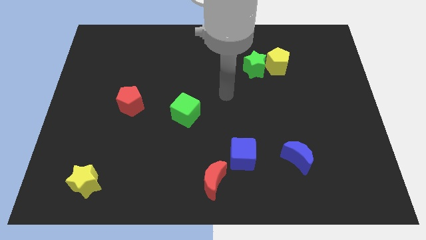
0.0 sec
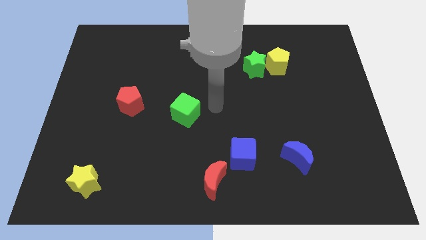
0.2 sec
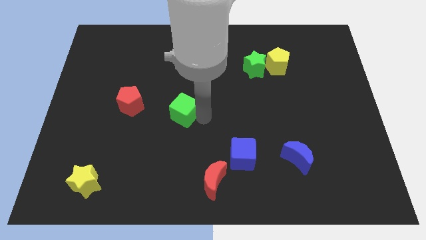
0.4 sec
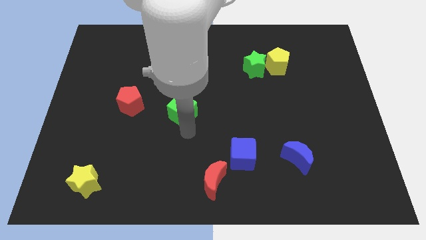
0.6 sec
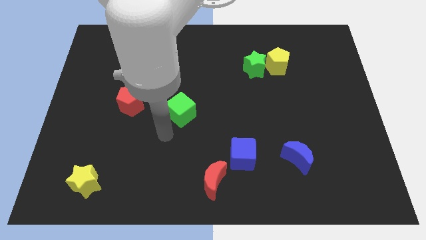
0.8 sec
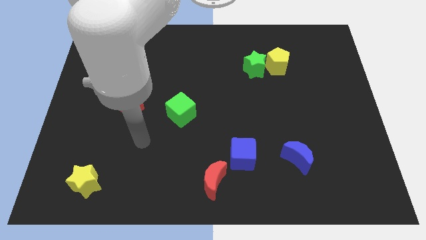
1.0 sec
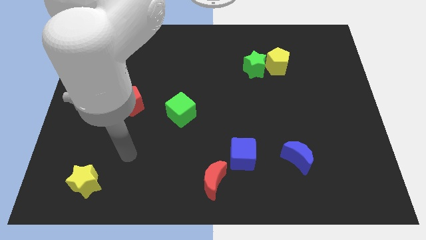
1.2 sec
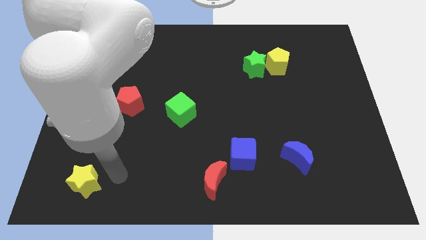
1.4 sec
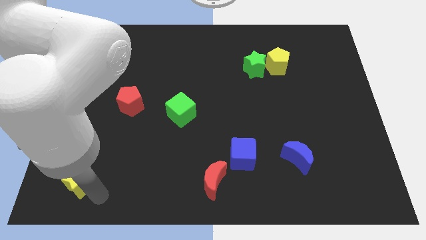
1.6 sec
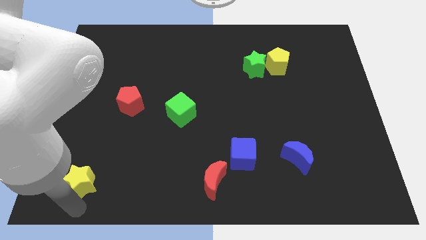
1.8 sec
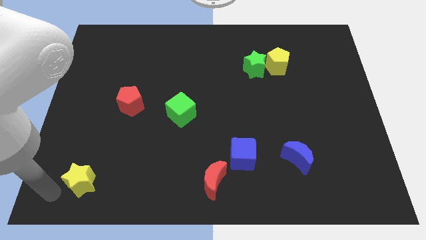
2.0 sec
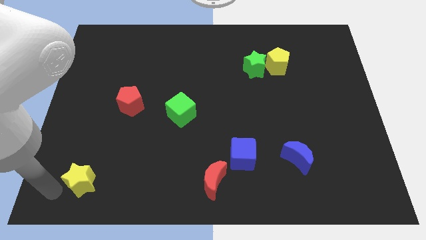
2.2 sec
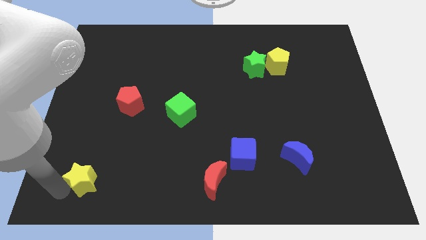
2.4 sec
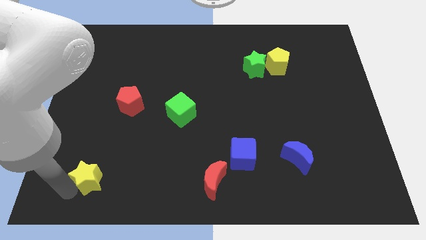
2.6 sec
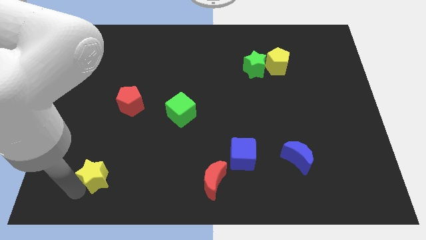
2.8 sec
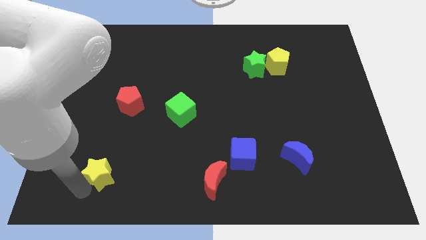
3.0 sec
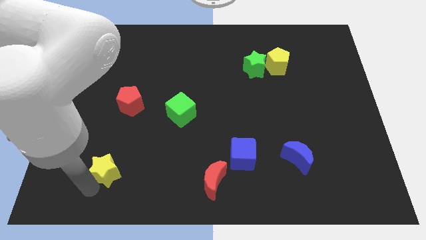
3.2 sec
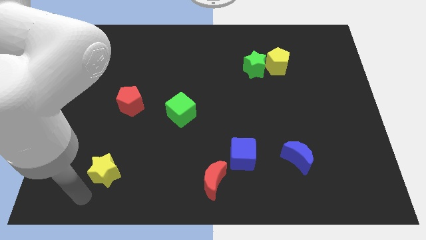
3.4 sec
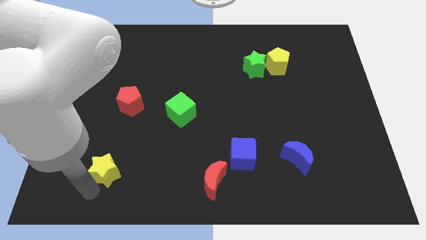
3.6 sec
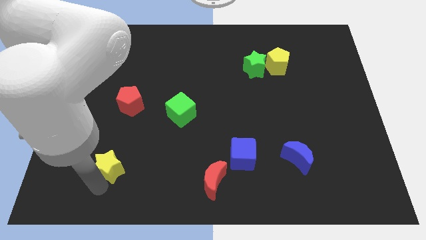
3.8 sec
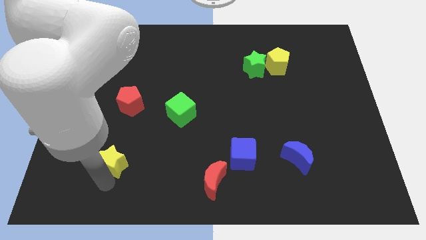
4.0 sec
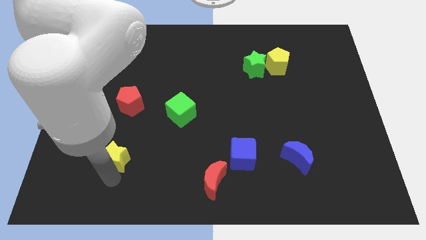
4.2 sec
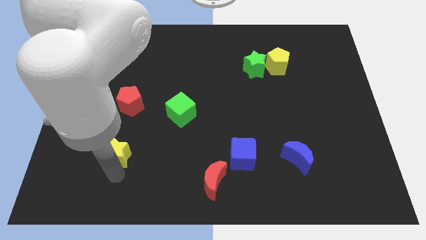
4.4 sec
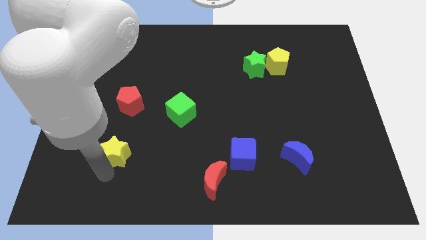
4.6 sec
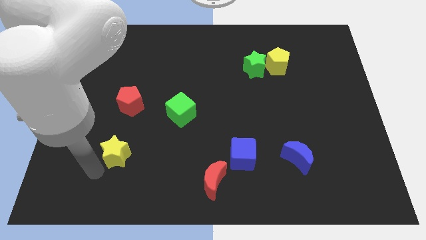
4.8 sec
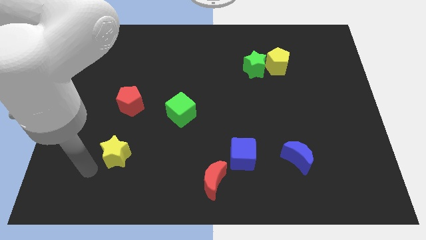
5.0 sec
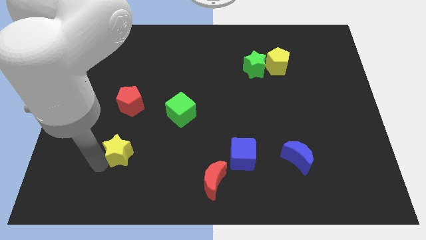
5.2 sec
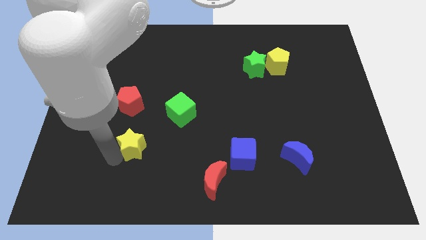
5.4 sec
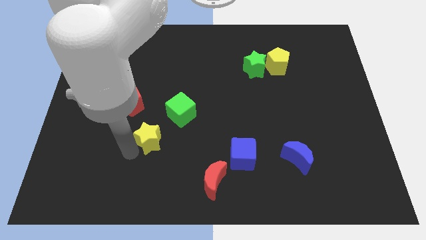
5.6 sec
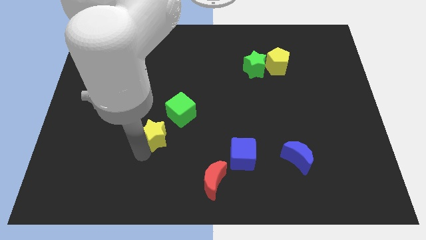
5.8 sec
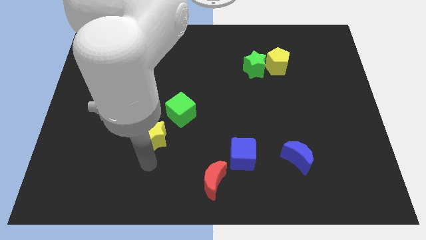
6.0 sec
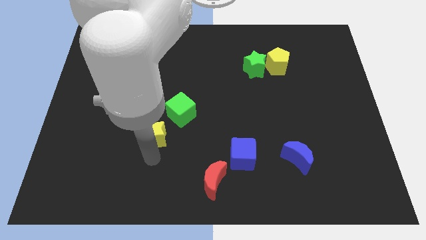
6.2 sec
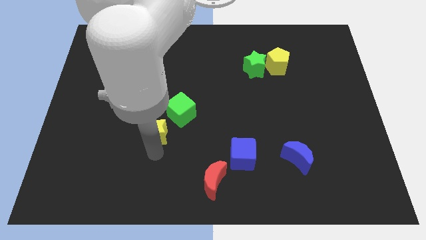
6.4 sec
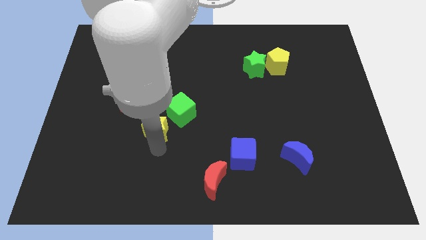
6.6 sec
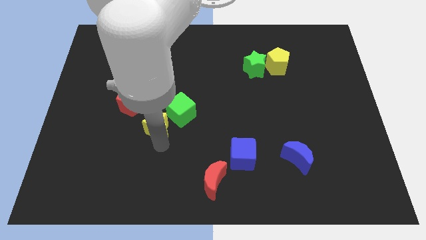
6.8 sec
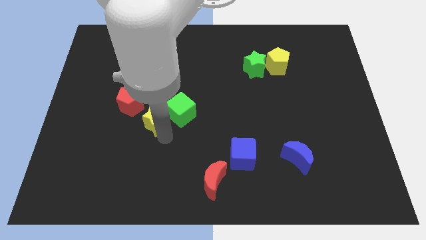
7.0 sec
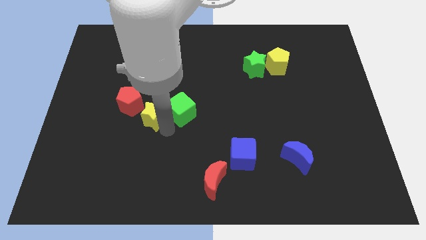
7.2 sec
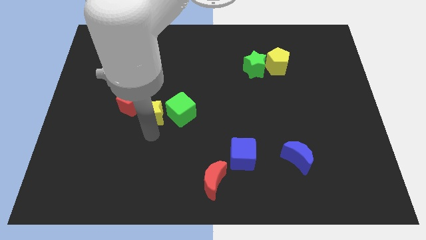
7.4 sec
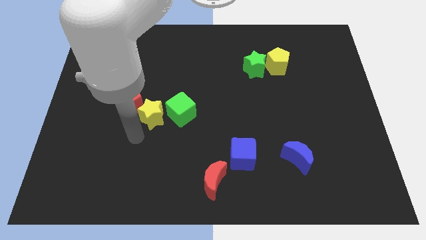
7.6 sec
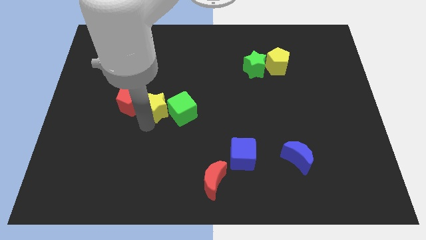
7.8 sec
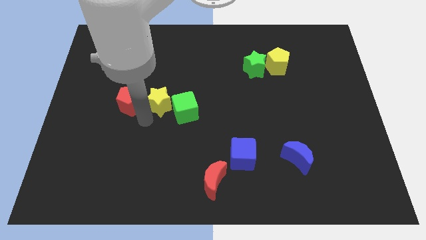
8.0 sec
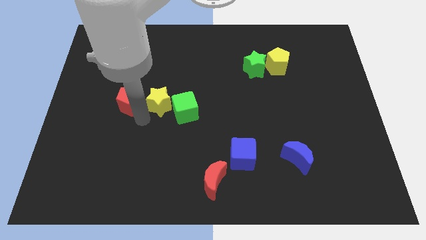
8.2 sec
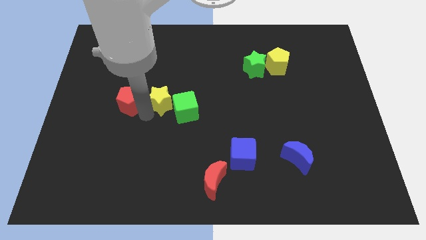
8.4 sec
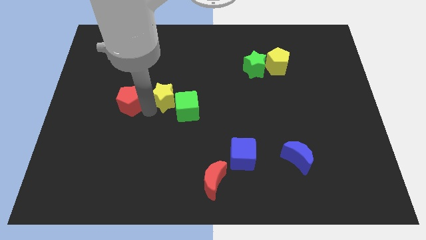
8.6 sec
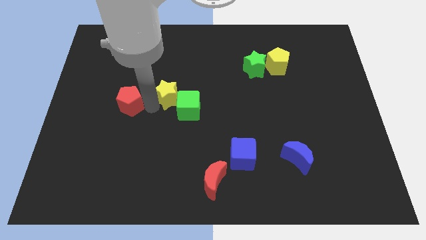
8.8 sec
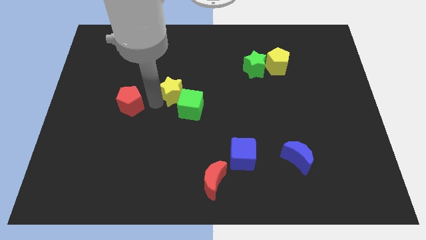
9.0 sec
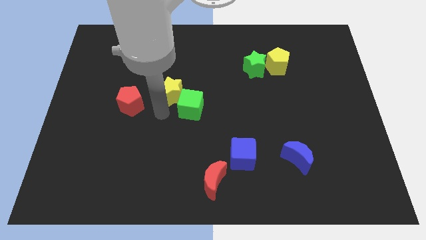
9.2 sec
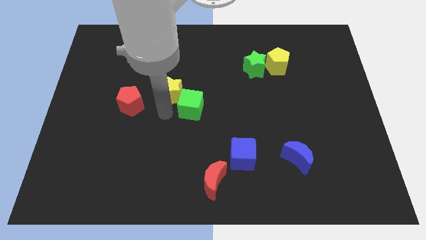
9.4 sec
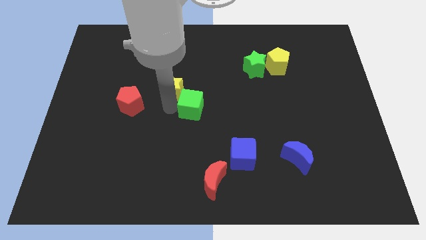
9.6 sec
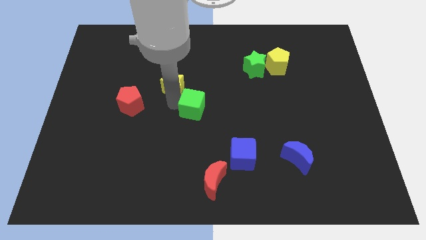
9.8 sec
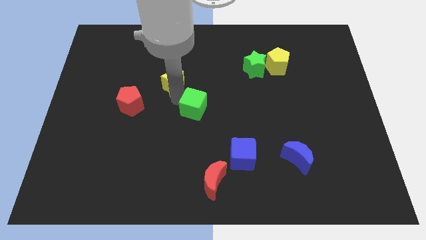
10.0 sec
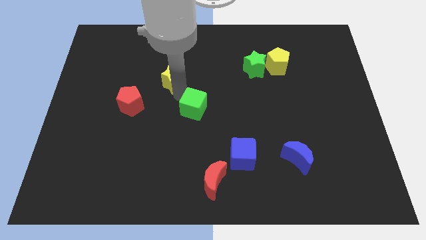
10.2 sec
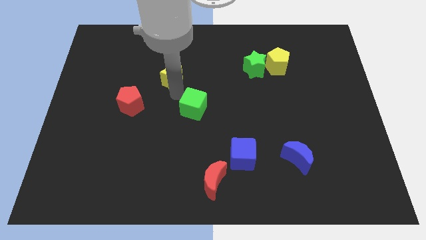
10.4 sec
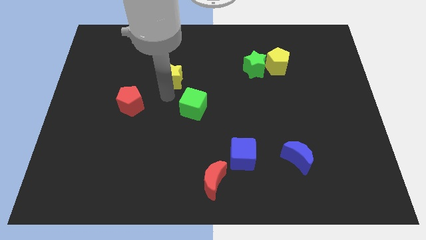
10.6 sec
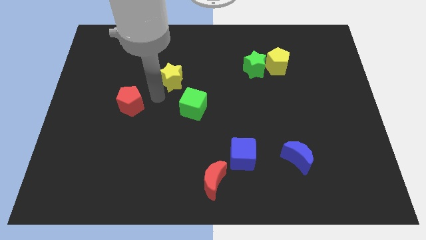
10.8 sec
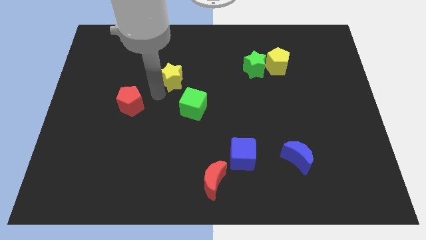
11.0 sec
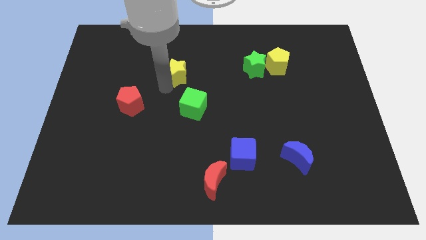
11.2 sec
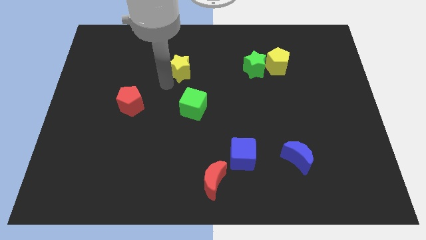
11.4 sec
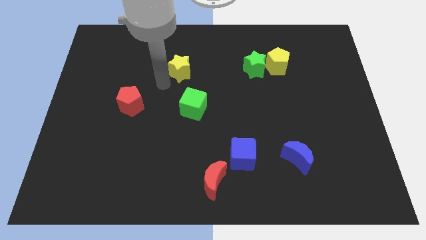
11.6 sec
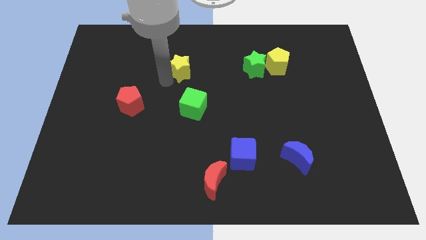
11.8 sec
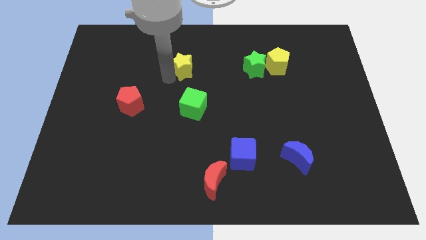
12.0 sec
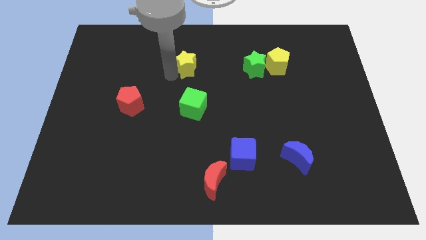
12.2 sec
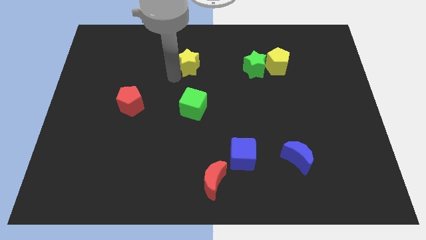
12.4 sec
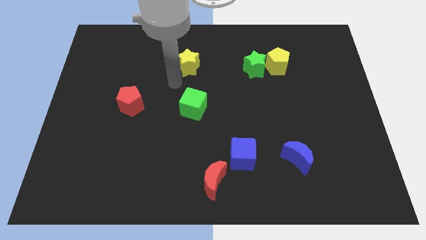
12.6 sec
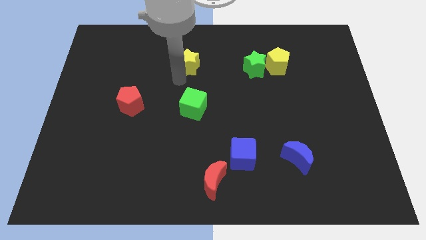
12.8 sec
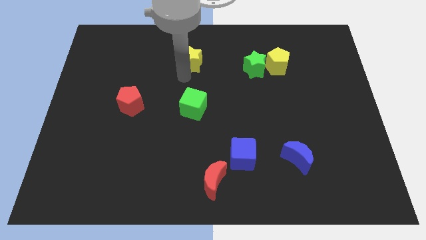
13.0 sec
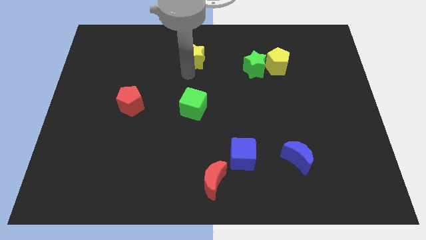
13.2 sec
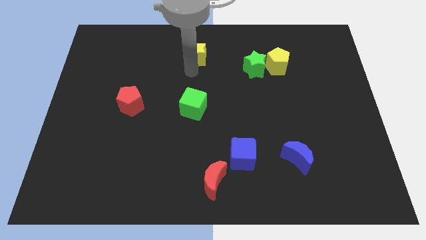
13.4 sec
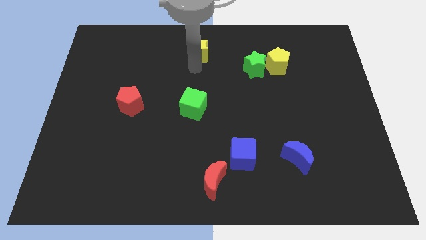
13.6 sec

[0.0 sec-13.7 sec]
push the yellow star to the top
